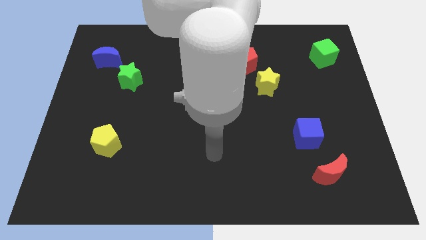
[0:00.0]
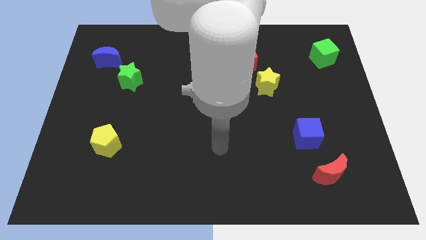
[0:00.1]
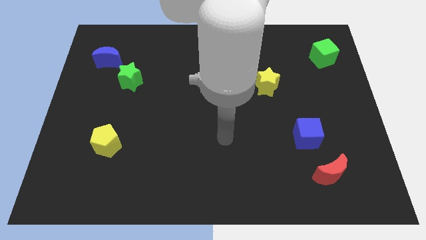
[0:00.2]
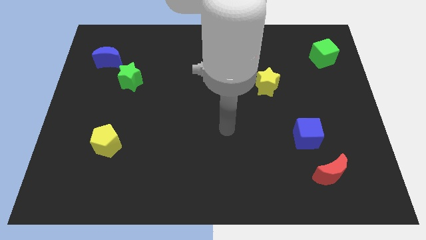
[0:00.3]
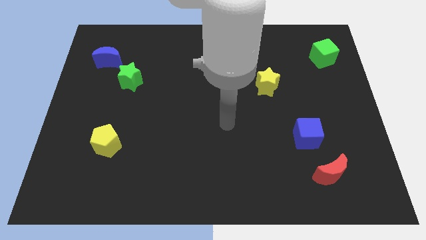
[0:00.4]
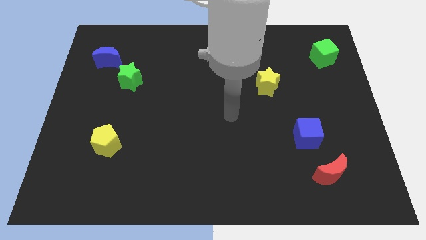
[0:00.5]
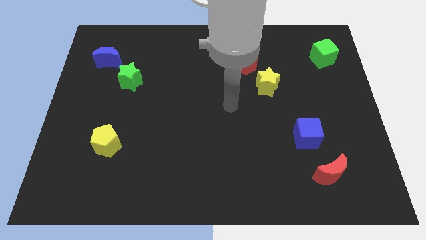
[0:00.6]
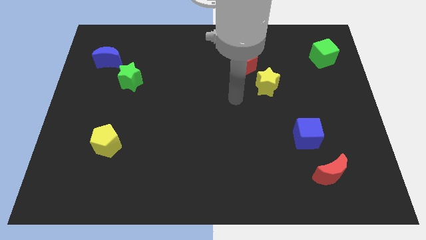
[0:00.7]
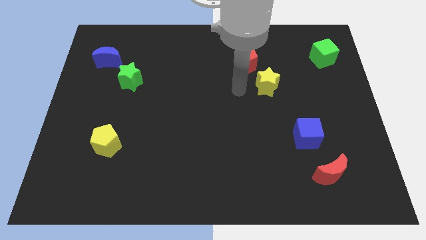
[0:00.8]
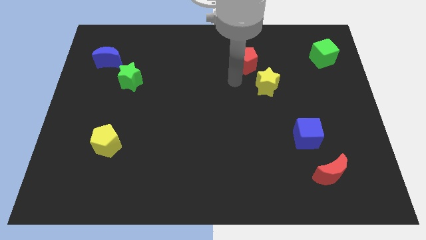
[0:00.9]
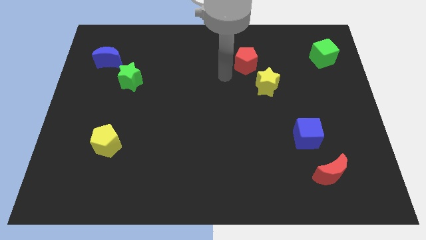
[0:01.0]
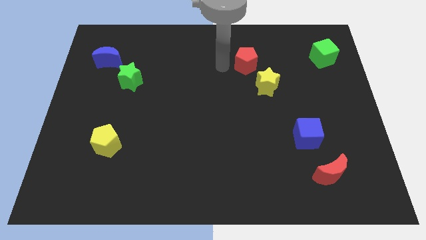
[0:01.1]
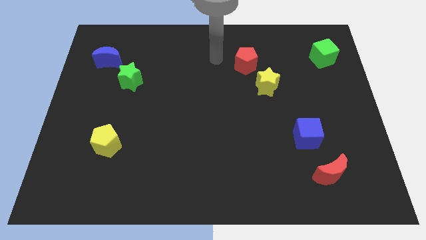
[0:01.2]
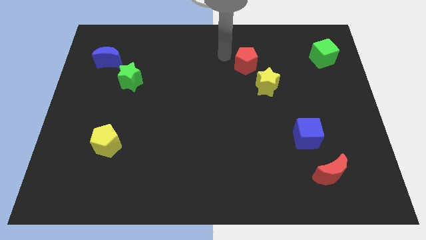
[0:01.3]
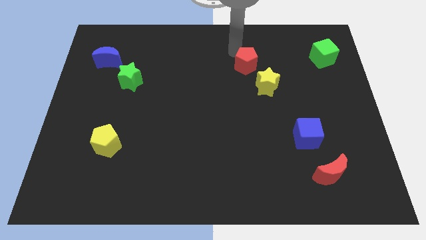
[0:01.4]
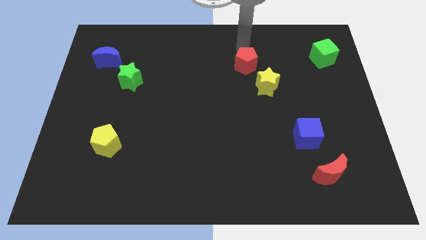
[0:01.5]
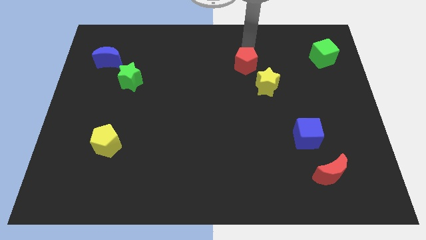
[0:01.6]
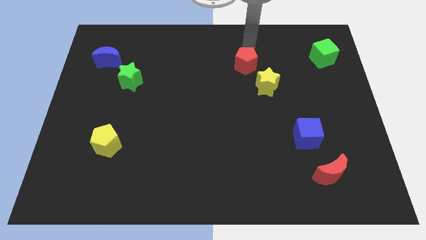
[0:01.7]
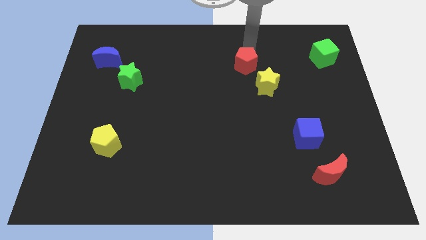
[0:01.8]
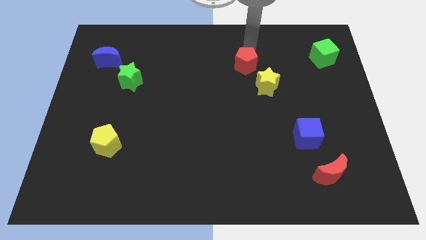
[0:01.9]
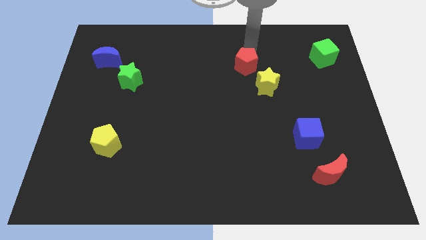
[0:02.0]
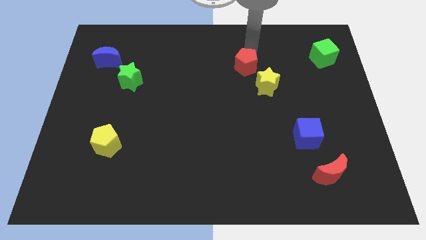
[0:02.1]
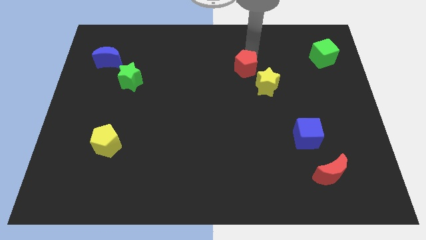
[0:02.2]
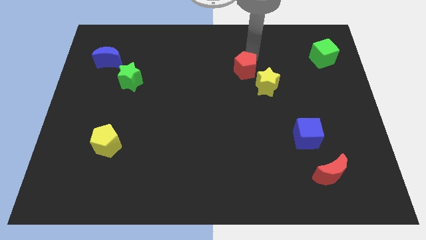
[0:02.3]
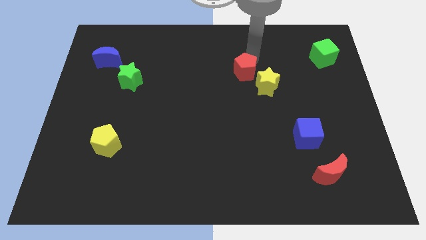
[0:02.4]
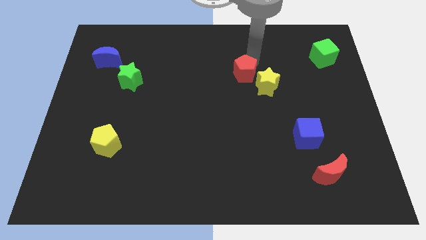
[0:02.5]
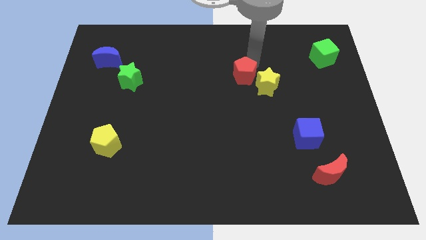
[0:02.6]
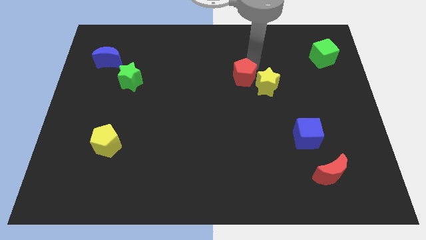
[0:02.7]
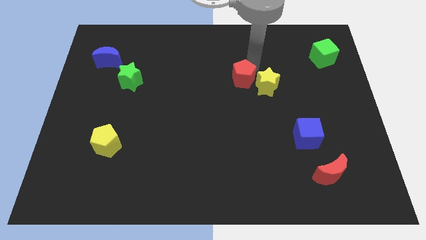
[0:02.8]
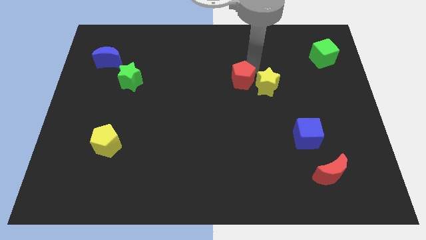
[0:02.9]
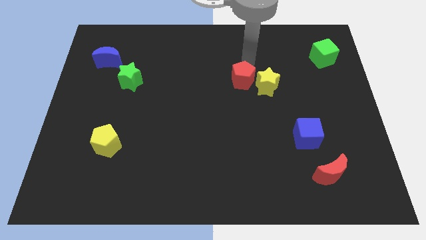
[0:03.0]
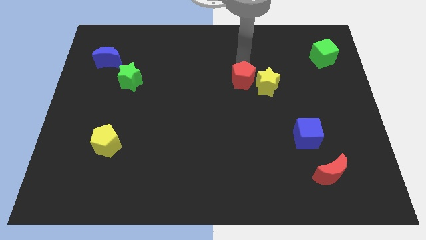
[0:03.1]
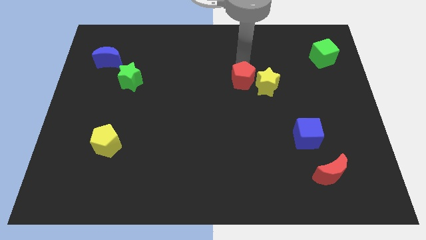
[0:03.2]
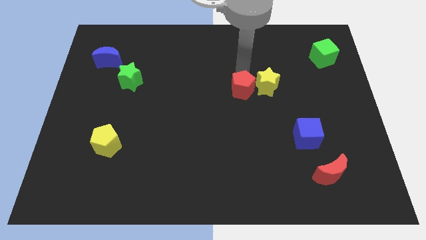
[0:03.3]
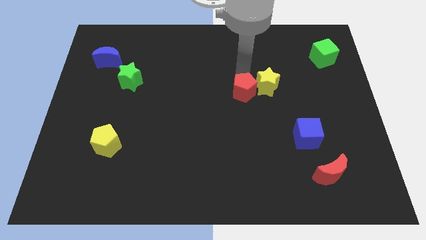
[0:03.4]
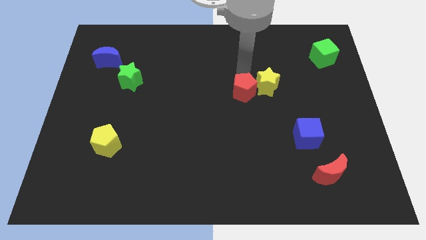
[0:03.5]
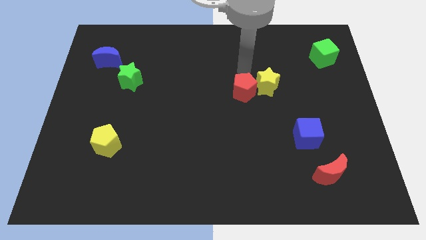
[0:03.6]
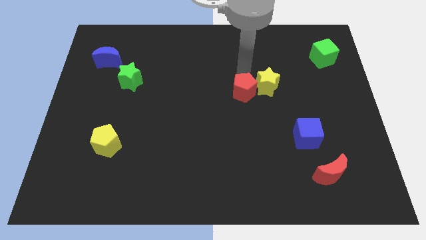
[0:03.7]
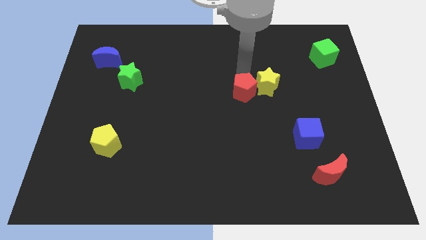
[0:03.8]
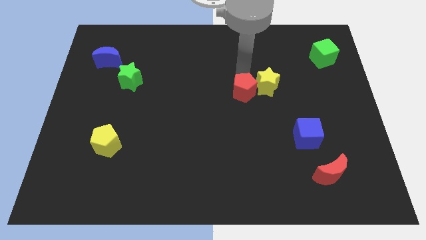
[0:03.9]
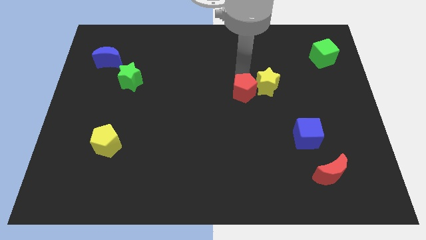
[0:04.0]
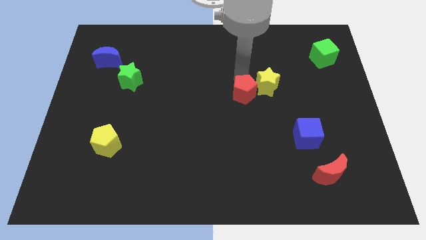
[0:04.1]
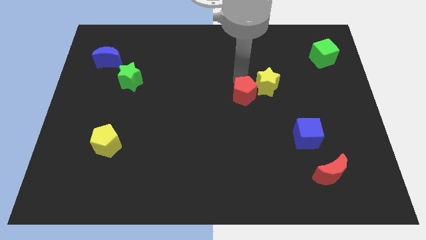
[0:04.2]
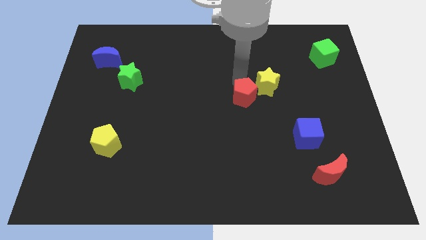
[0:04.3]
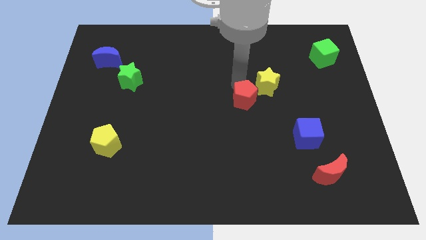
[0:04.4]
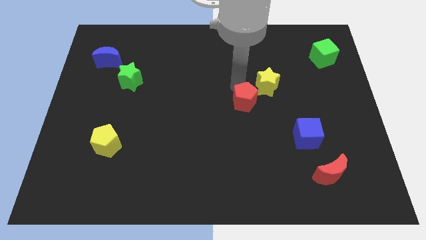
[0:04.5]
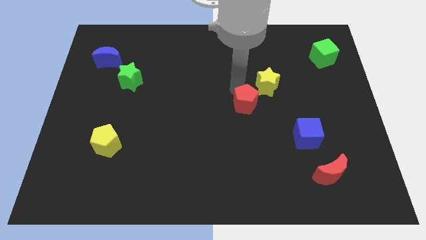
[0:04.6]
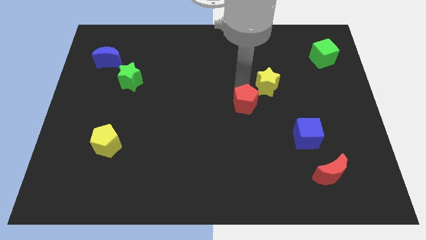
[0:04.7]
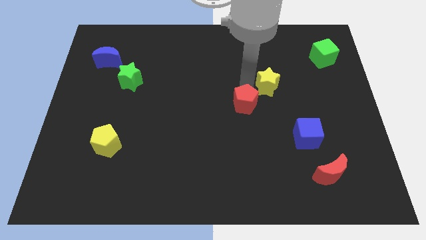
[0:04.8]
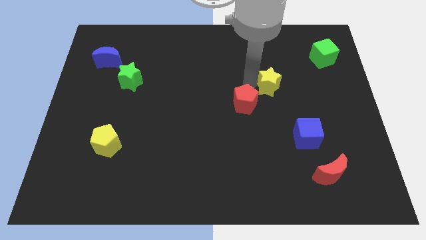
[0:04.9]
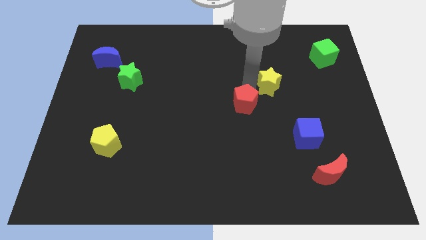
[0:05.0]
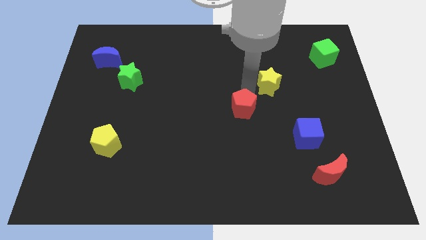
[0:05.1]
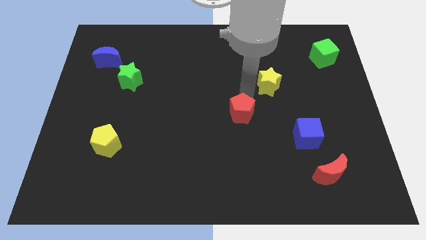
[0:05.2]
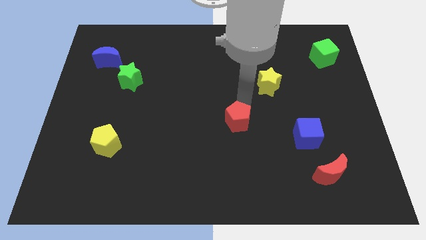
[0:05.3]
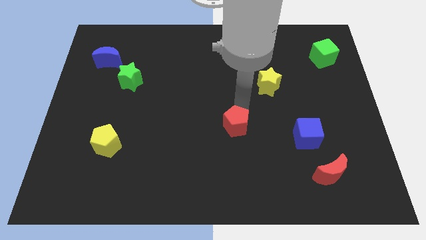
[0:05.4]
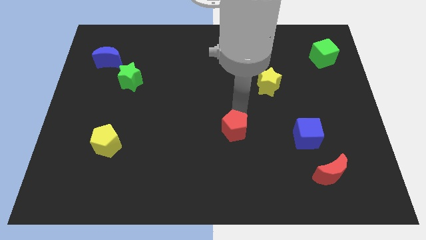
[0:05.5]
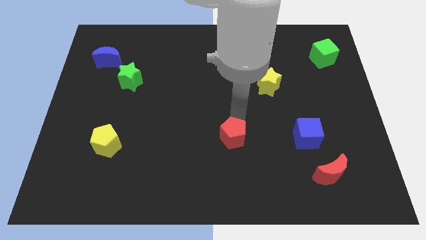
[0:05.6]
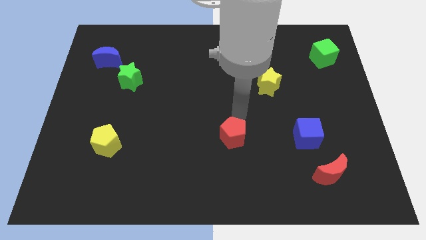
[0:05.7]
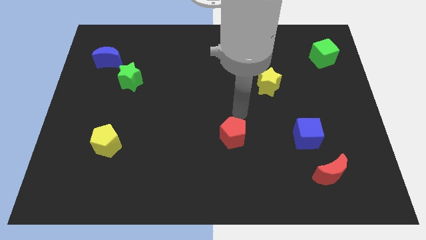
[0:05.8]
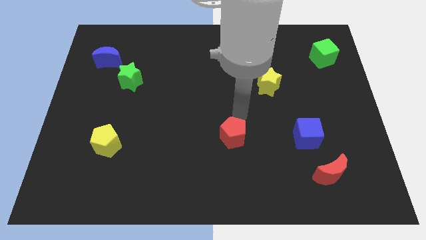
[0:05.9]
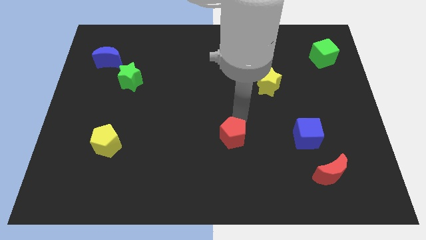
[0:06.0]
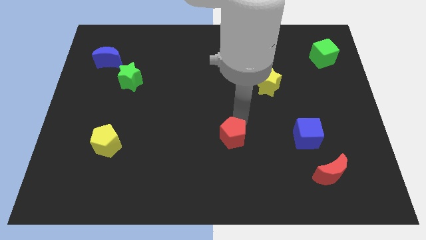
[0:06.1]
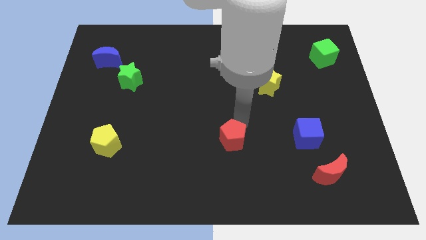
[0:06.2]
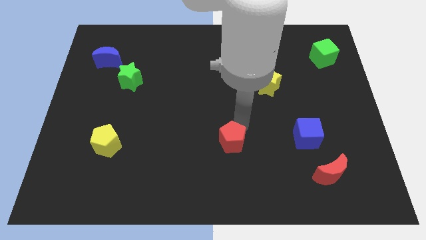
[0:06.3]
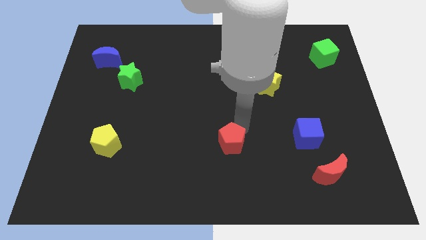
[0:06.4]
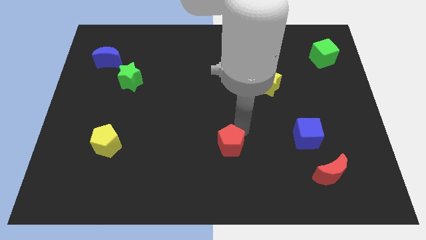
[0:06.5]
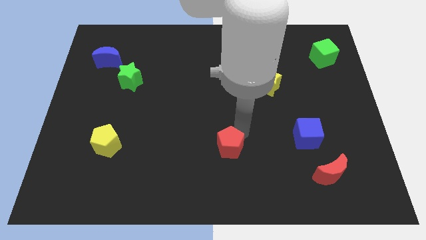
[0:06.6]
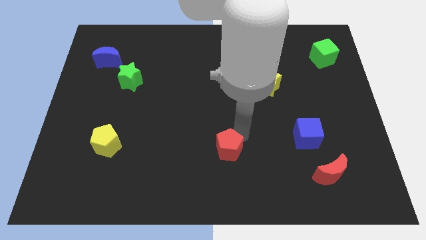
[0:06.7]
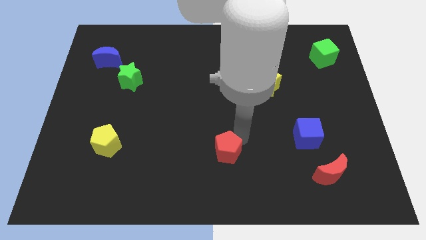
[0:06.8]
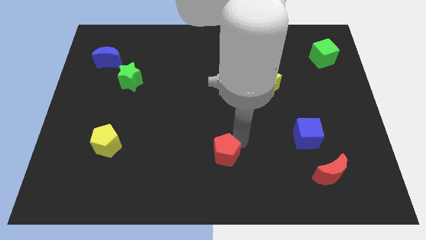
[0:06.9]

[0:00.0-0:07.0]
put the red pentagon to the bottom
